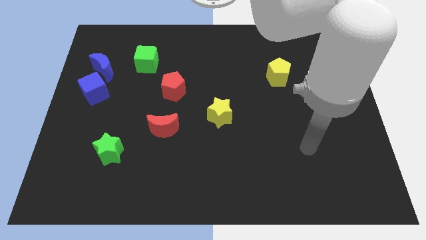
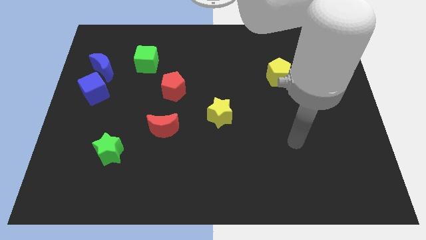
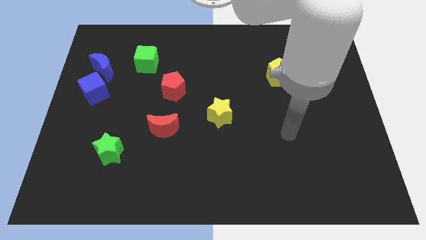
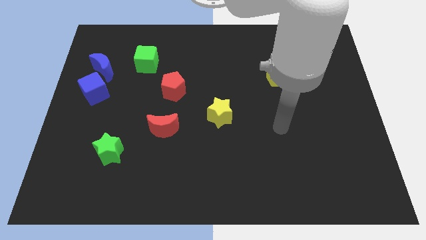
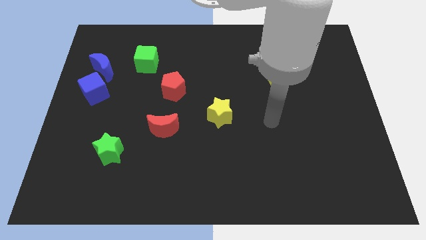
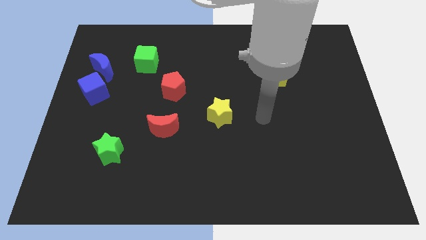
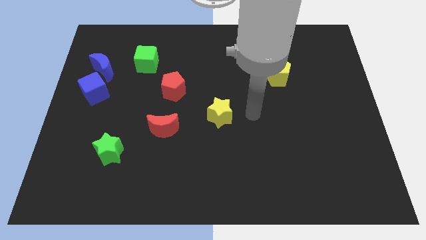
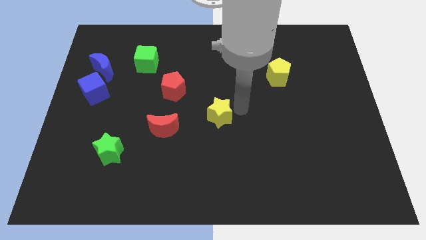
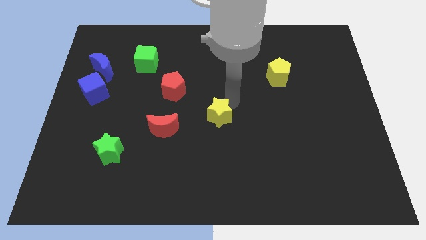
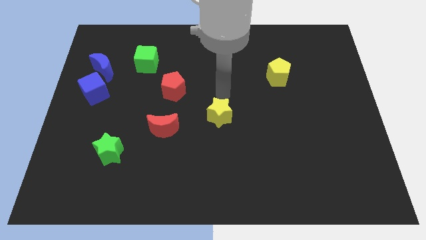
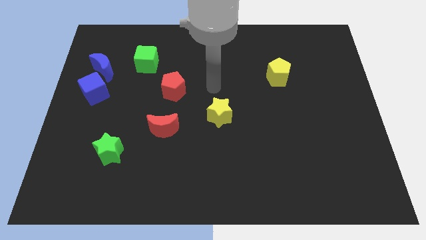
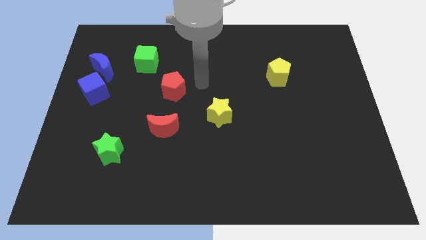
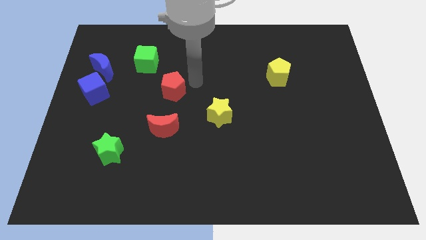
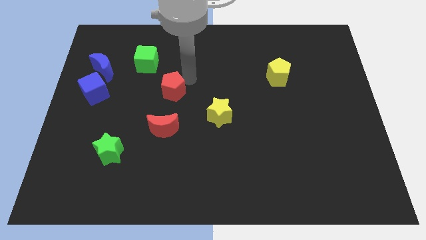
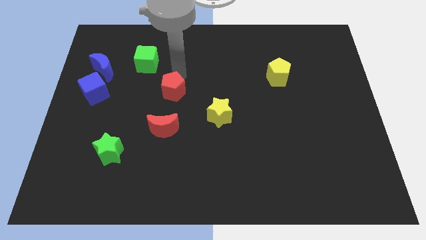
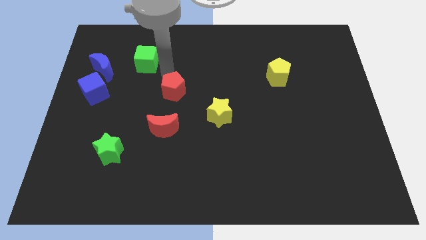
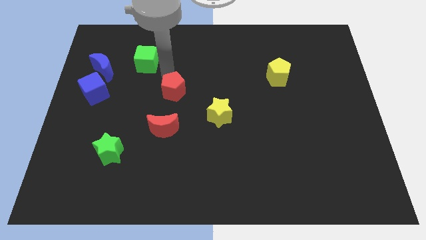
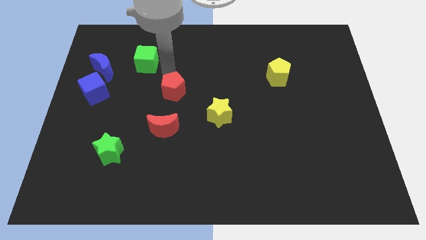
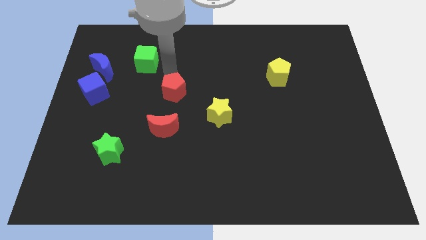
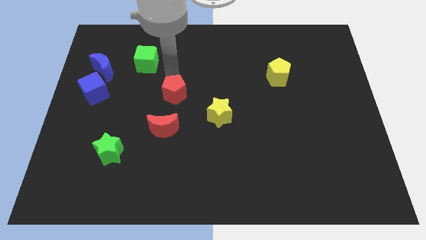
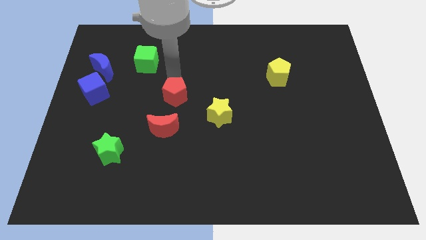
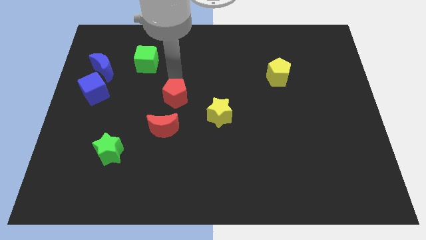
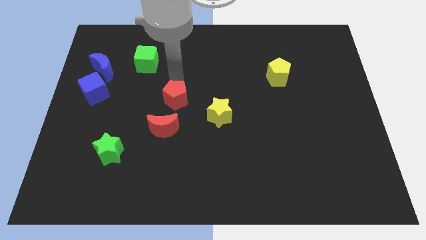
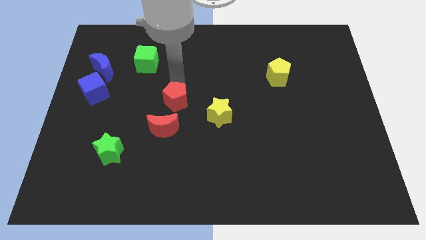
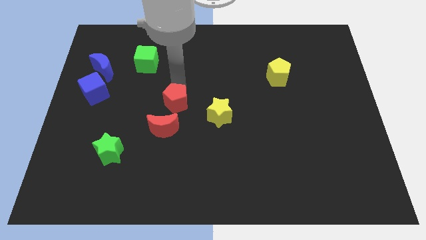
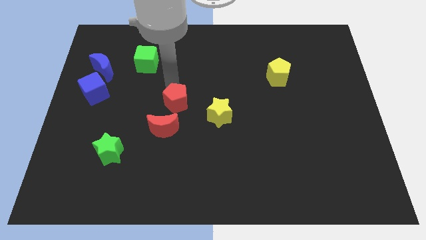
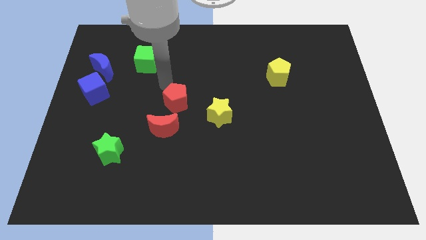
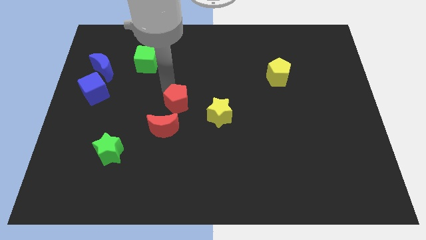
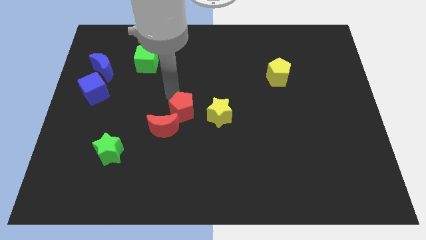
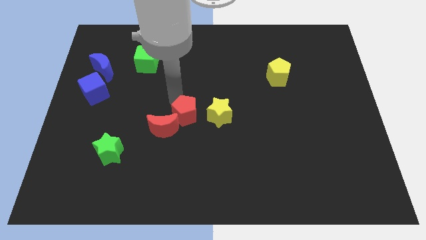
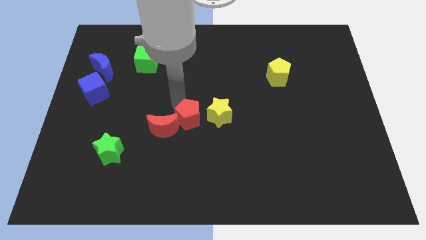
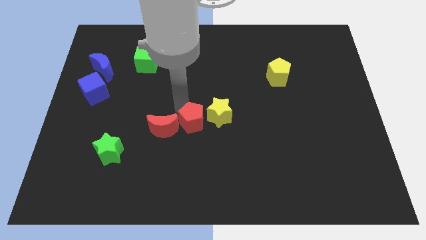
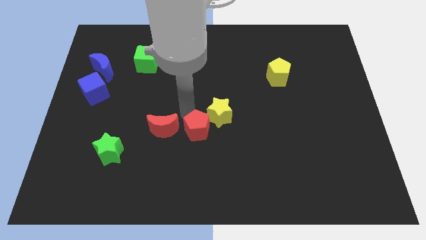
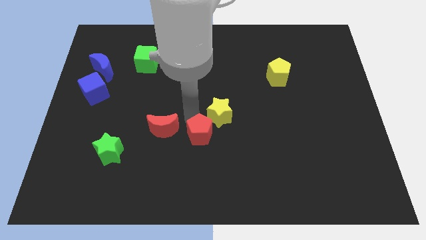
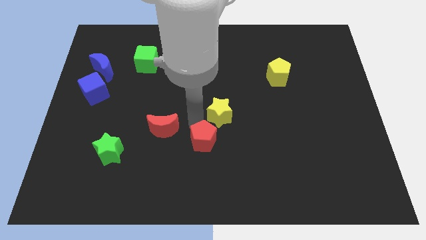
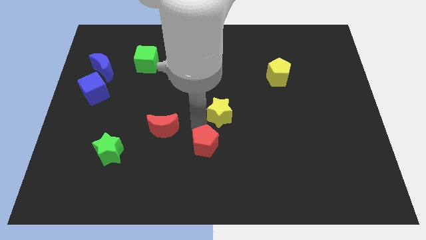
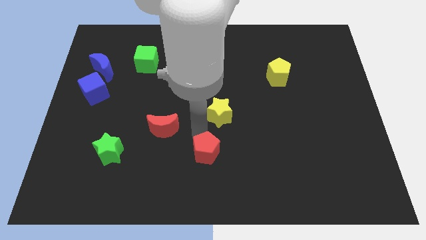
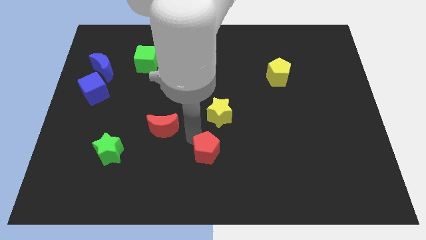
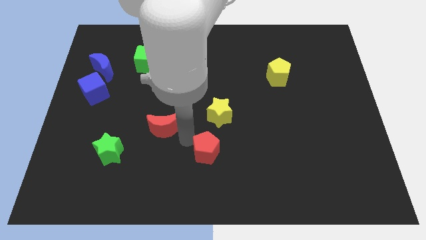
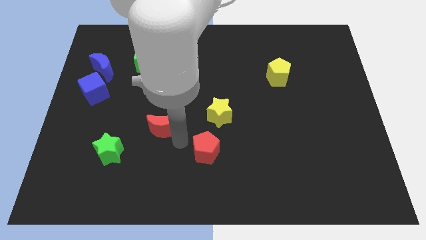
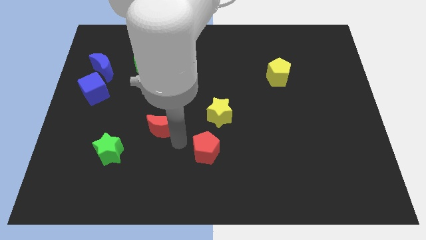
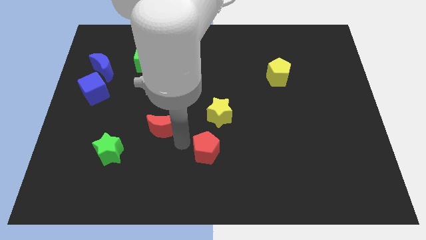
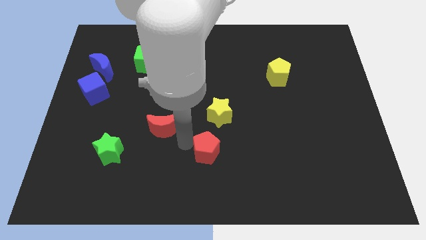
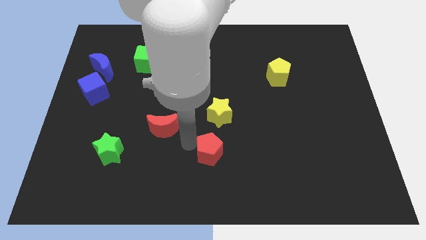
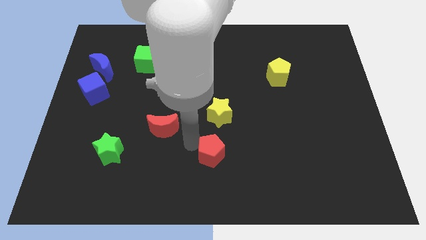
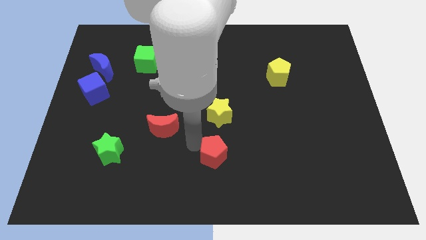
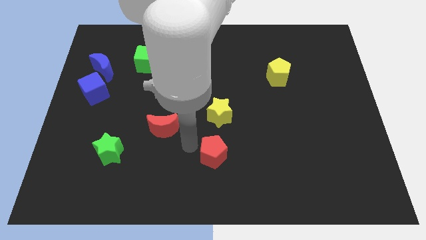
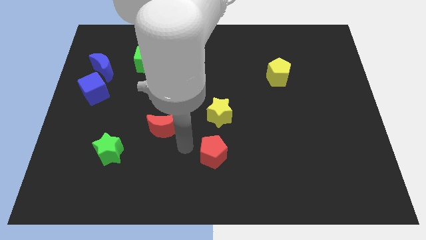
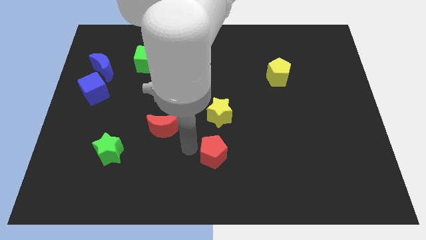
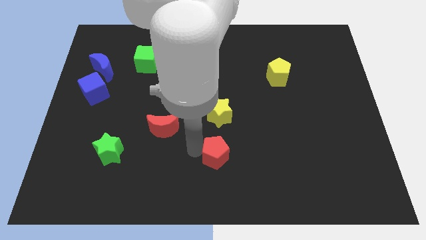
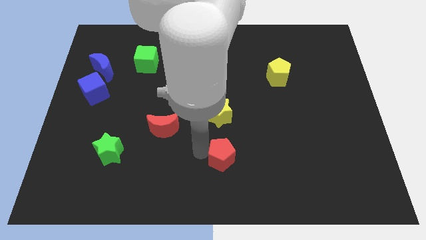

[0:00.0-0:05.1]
push the red pentagon down and then to the right

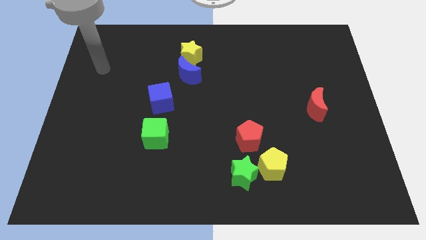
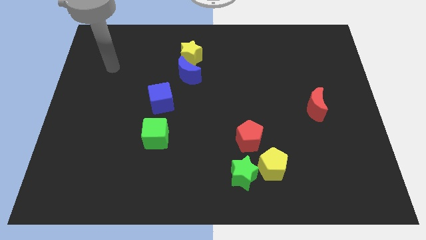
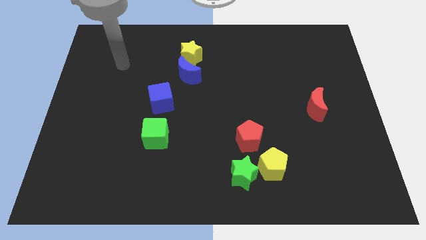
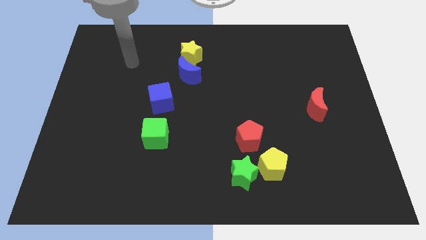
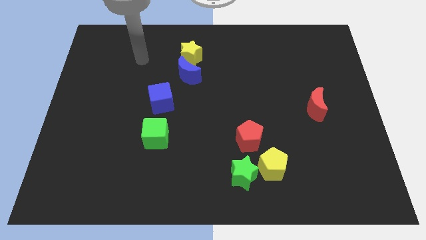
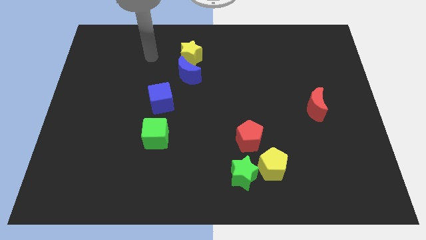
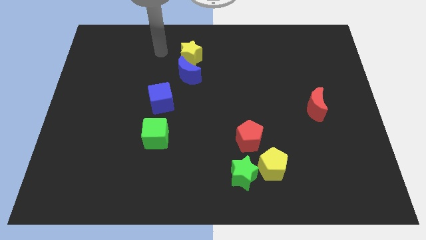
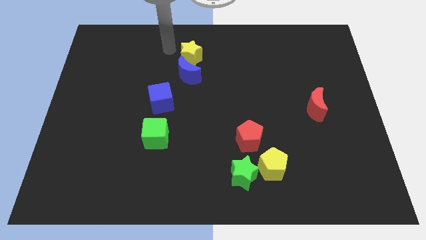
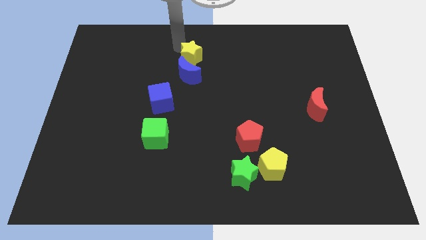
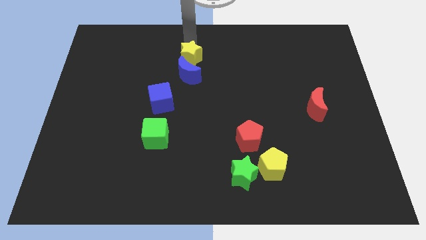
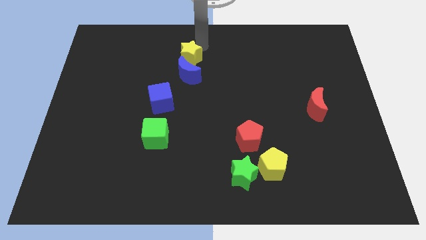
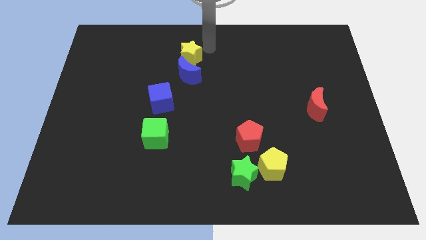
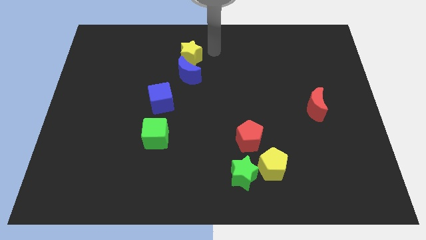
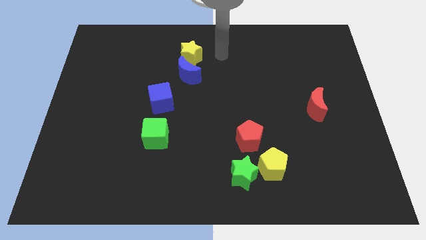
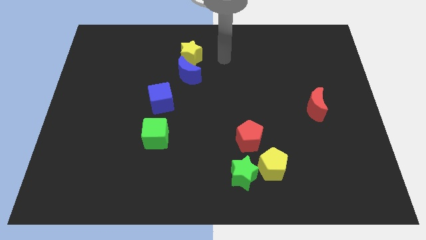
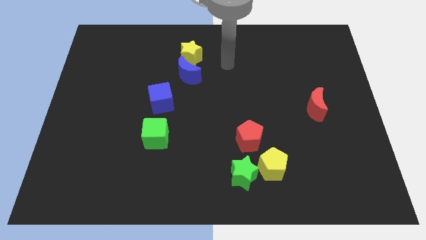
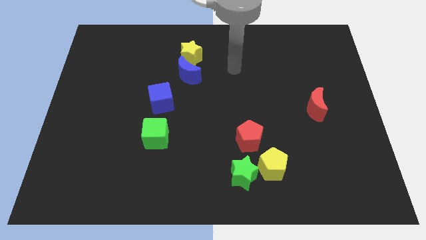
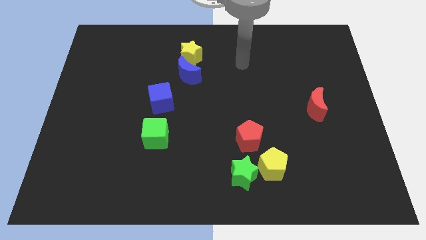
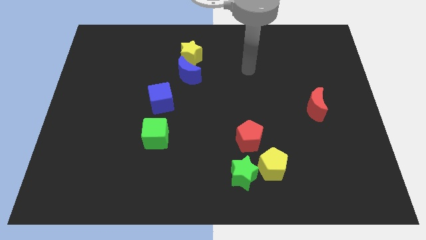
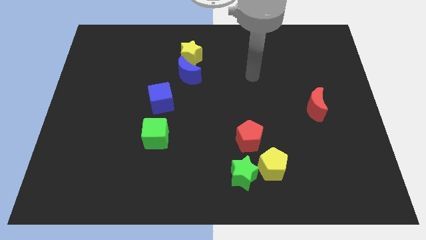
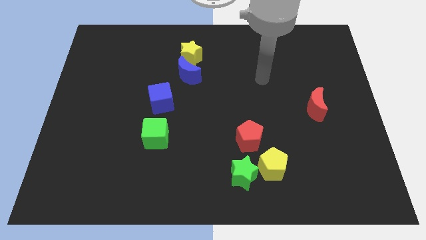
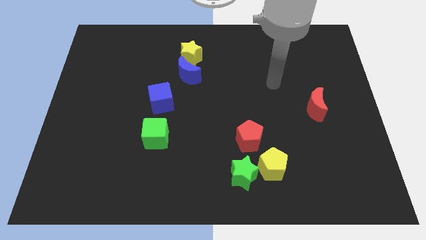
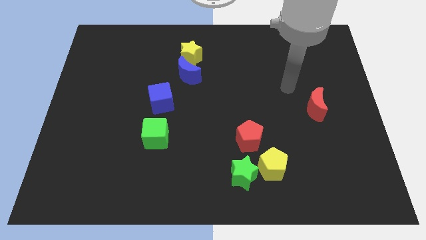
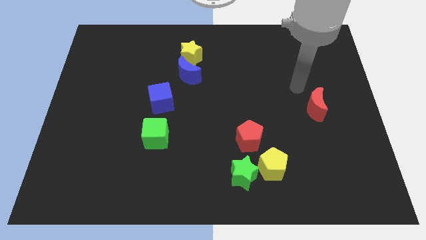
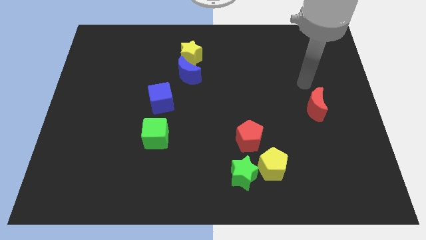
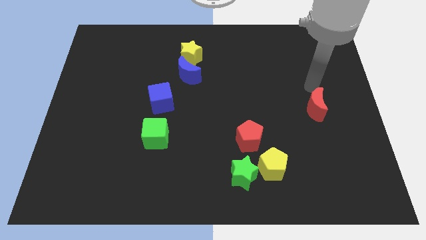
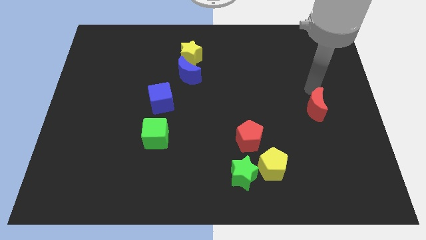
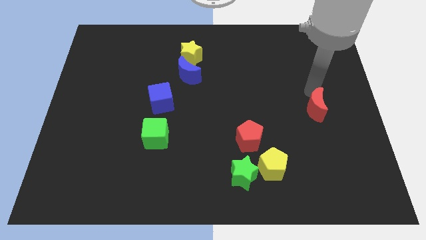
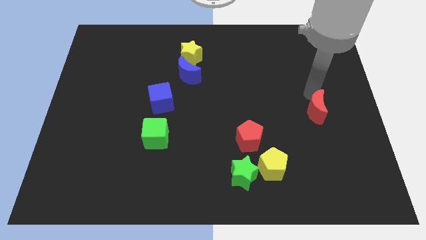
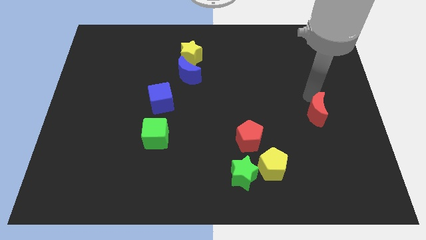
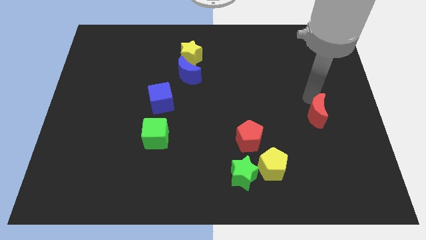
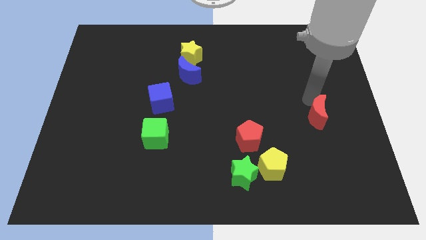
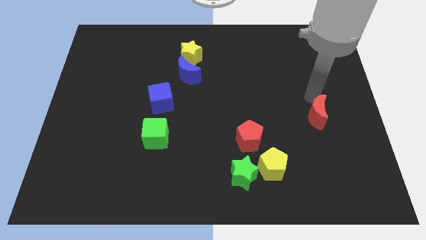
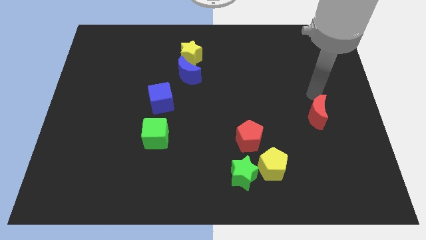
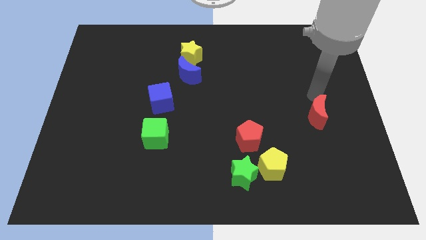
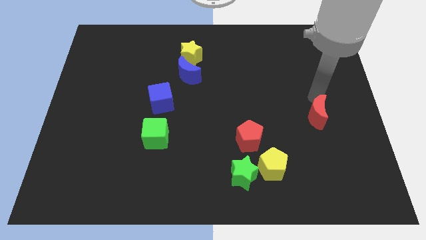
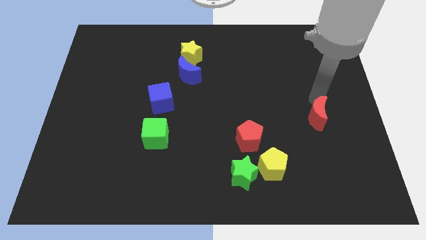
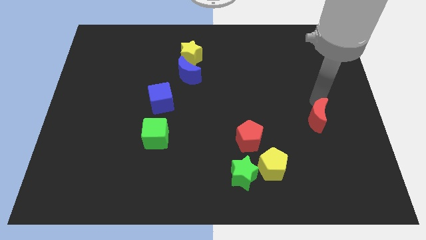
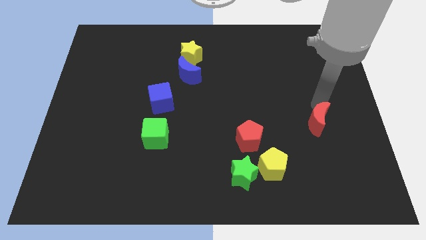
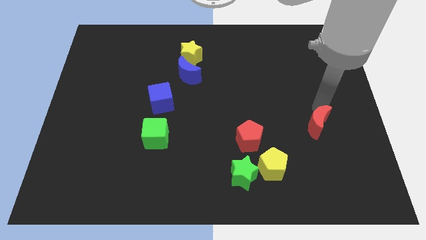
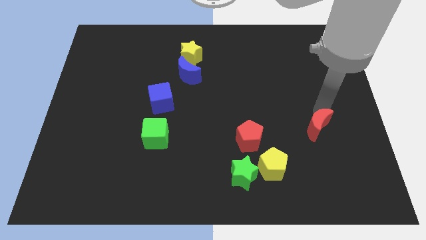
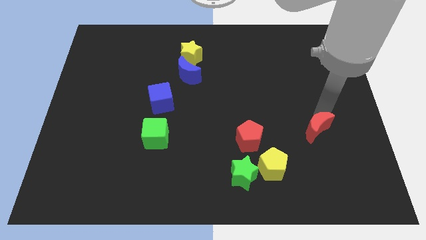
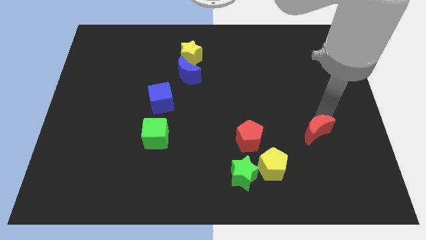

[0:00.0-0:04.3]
slightly slide the red moon down
